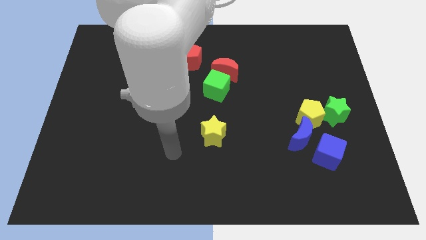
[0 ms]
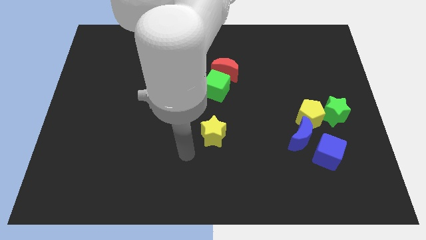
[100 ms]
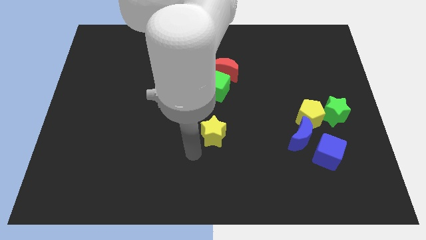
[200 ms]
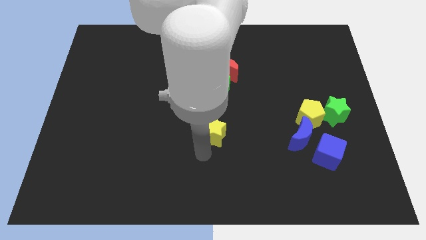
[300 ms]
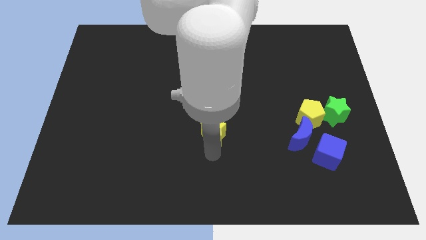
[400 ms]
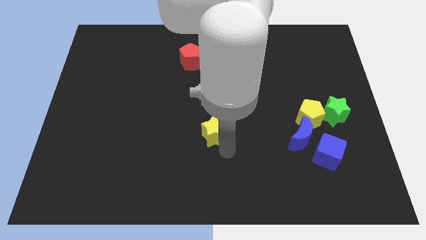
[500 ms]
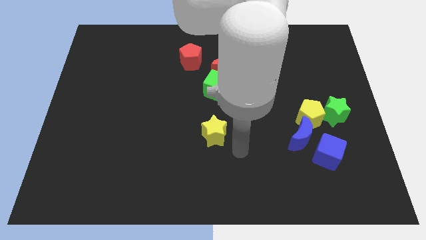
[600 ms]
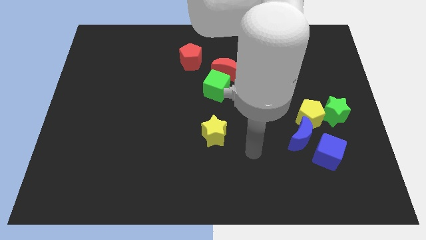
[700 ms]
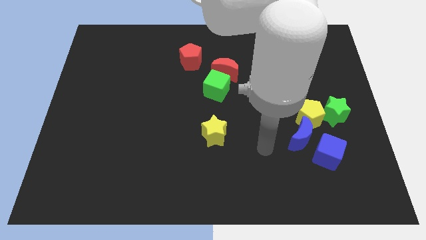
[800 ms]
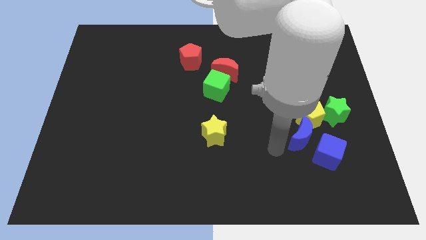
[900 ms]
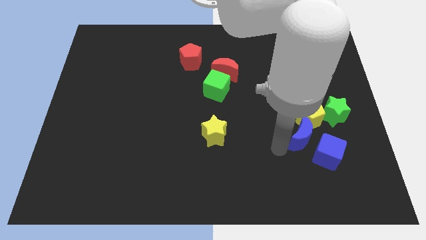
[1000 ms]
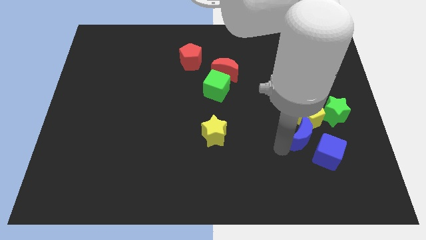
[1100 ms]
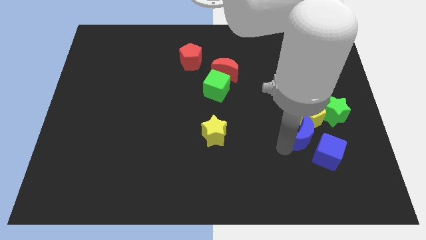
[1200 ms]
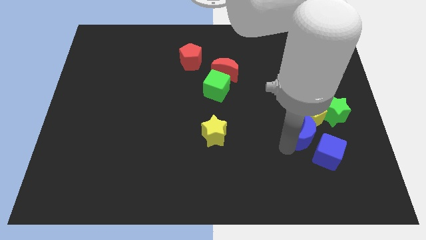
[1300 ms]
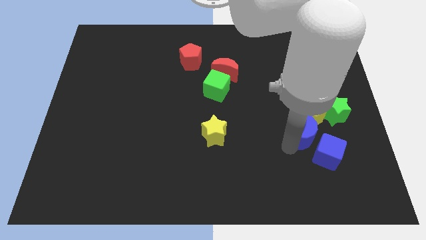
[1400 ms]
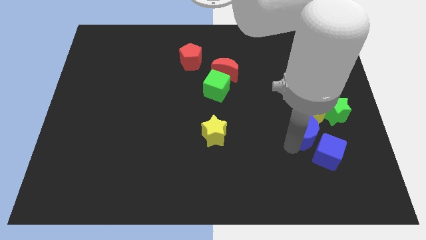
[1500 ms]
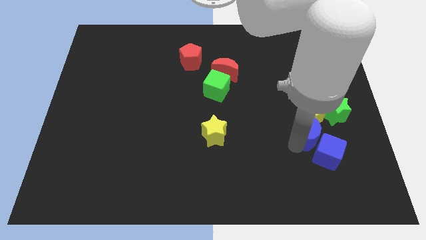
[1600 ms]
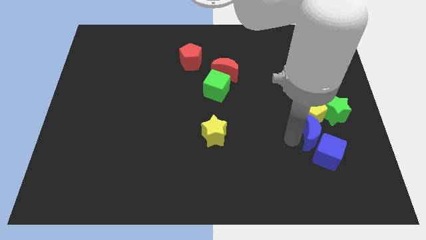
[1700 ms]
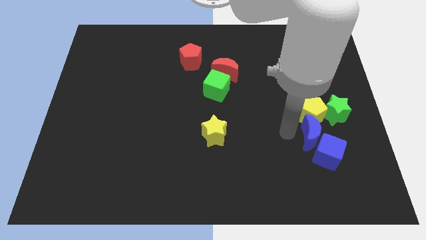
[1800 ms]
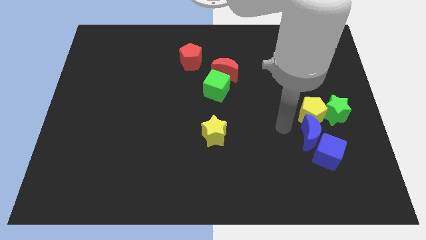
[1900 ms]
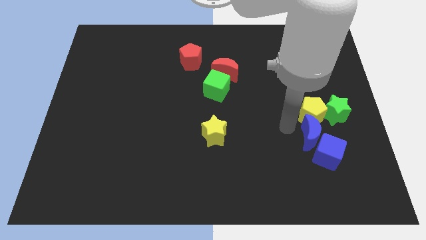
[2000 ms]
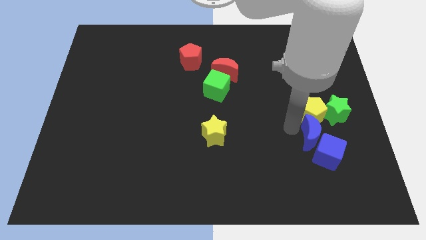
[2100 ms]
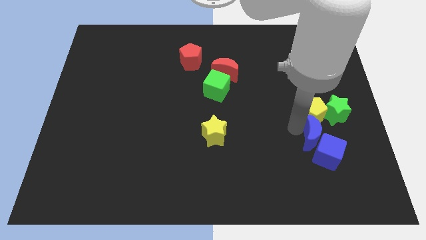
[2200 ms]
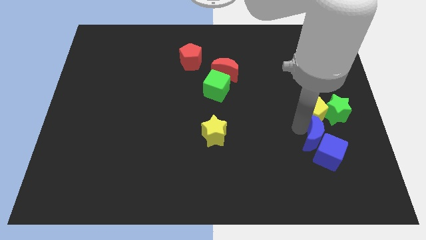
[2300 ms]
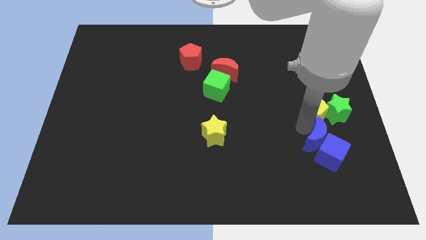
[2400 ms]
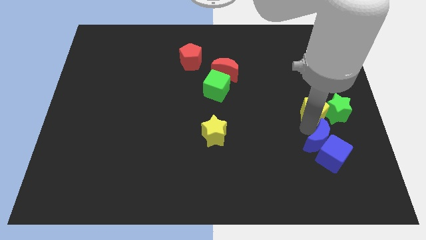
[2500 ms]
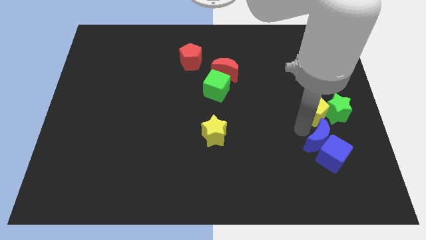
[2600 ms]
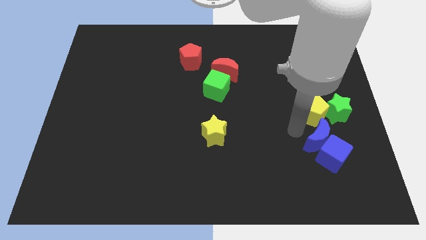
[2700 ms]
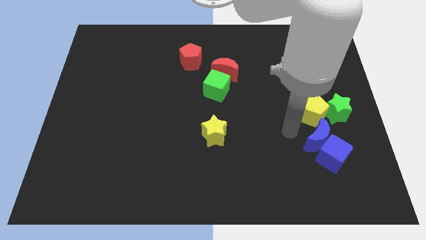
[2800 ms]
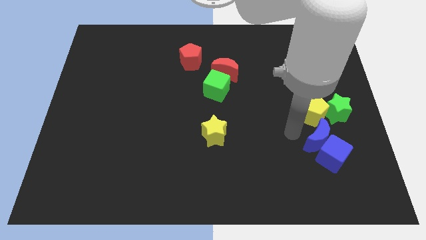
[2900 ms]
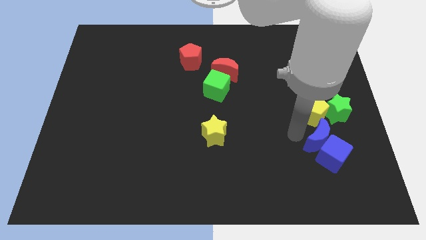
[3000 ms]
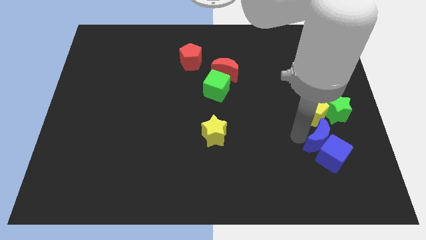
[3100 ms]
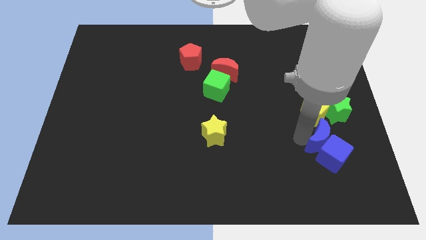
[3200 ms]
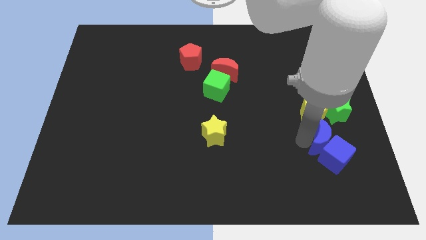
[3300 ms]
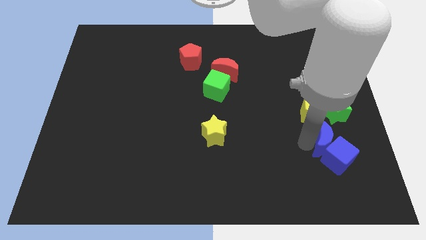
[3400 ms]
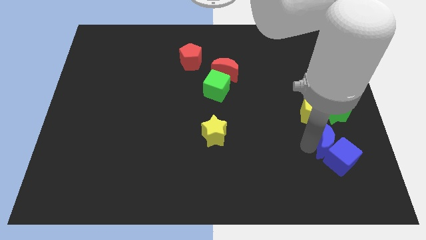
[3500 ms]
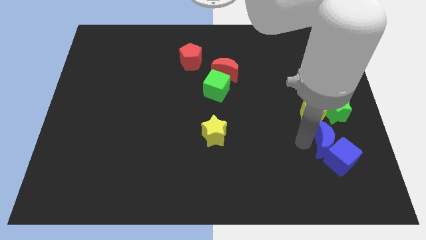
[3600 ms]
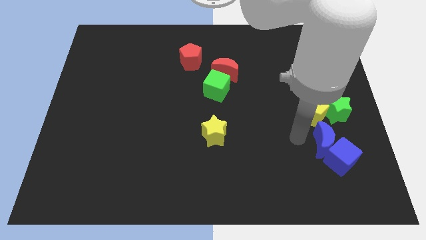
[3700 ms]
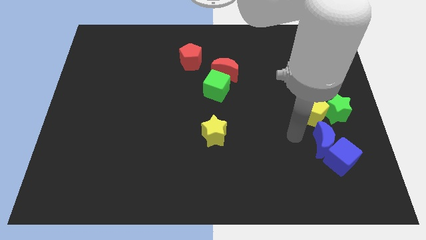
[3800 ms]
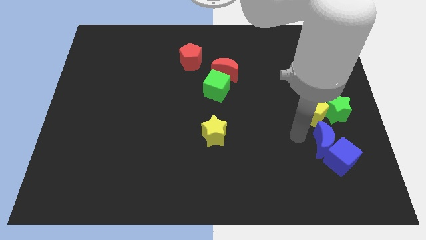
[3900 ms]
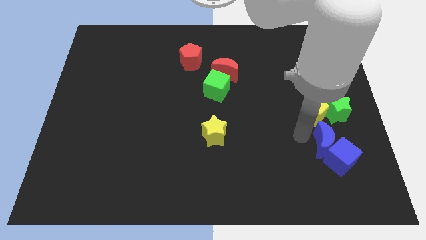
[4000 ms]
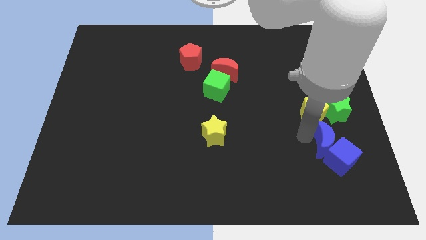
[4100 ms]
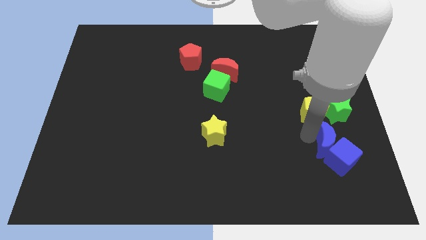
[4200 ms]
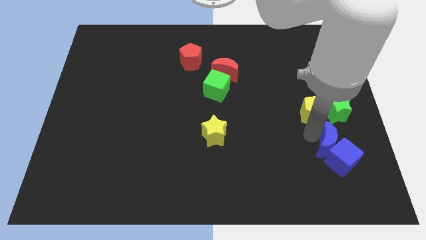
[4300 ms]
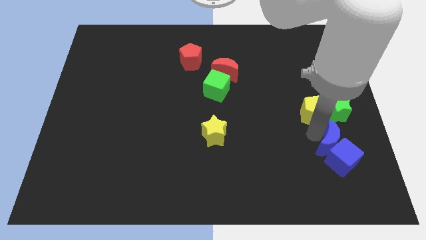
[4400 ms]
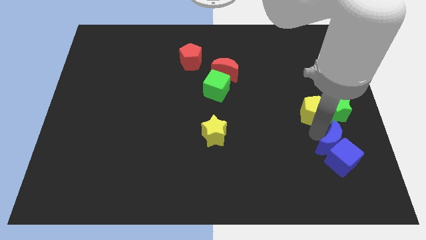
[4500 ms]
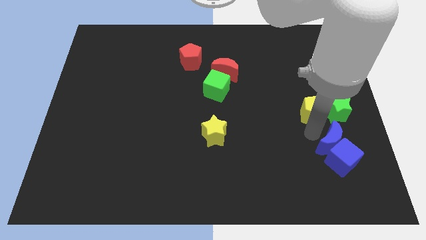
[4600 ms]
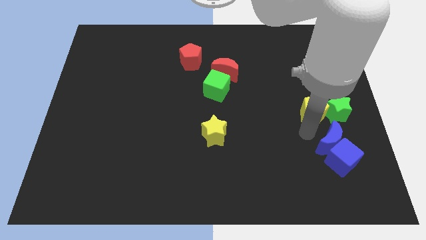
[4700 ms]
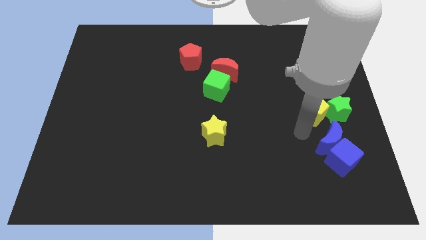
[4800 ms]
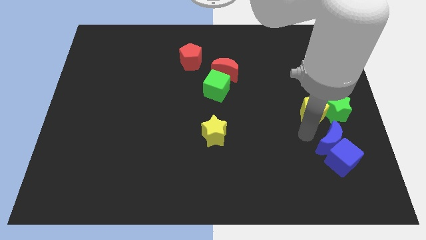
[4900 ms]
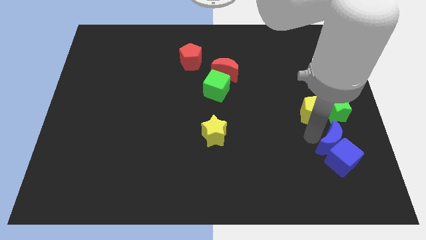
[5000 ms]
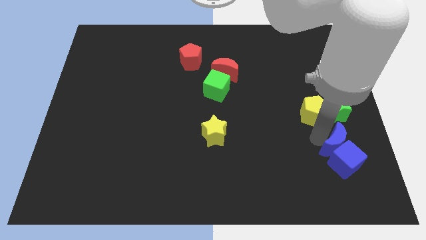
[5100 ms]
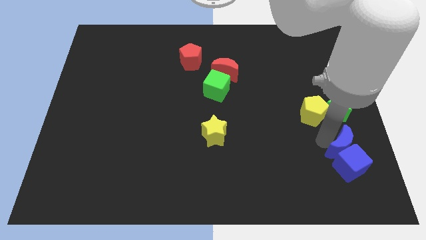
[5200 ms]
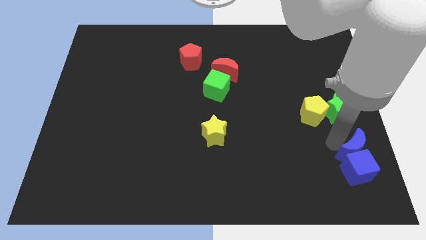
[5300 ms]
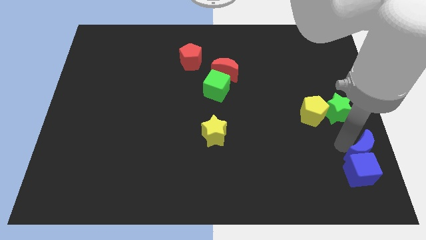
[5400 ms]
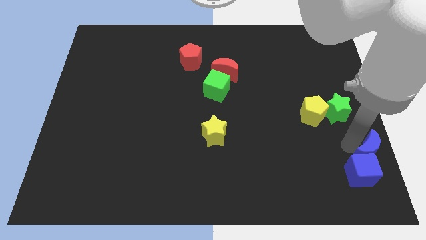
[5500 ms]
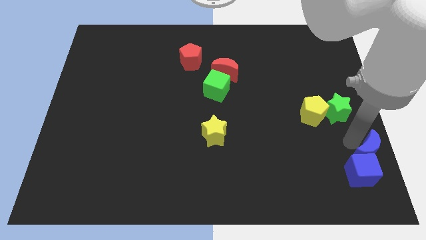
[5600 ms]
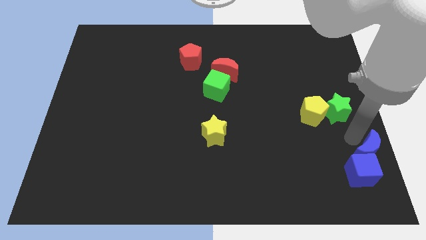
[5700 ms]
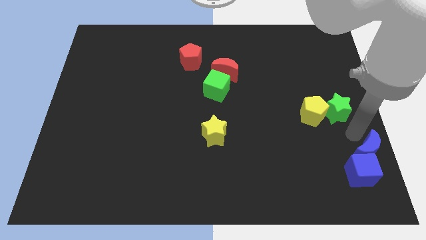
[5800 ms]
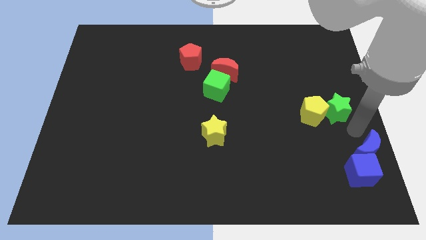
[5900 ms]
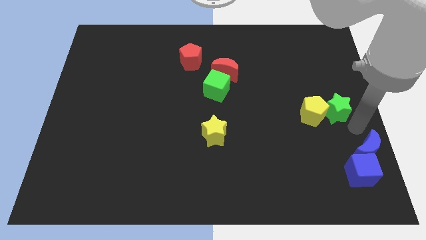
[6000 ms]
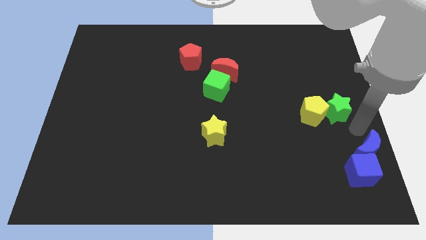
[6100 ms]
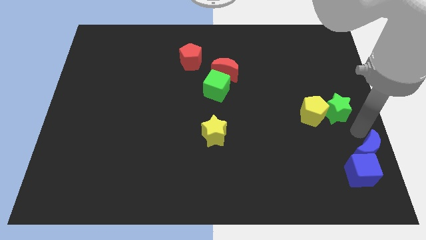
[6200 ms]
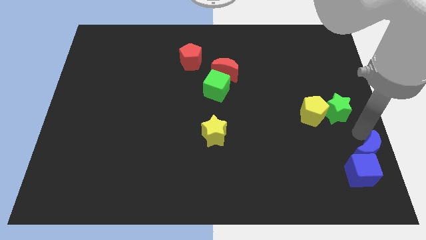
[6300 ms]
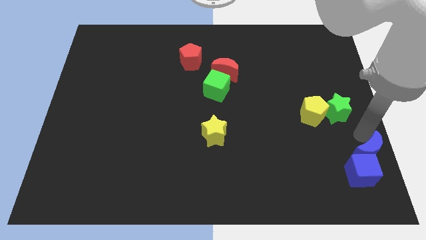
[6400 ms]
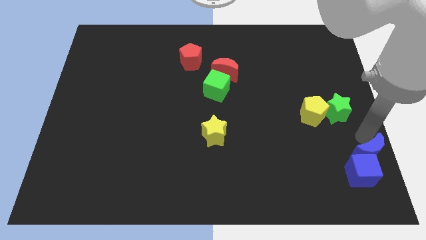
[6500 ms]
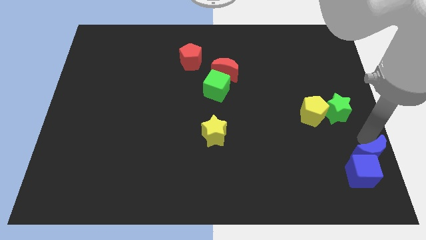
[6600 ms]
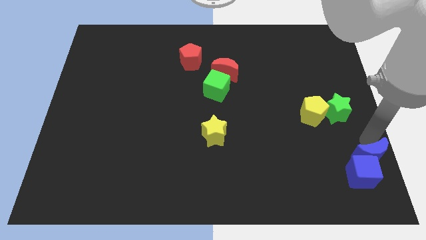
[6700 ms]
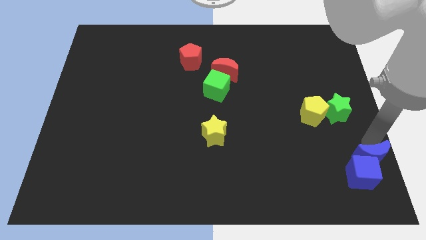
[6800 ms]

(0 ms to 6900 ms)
push the blue moon to the bottom right
